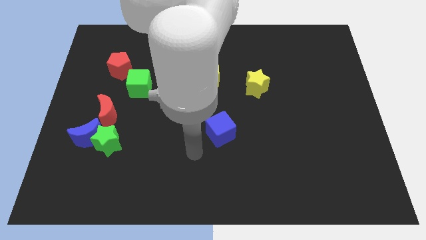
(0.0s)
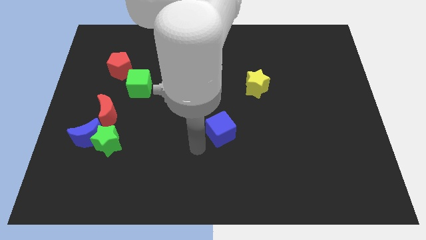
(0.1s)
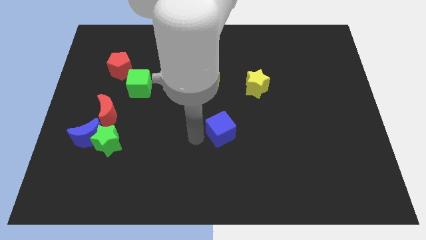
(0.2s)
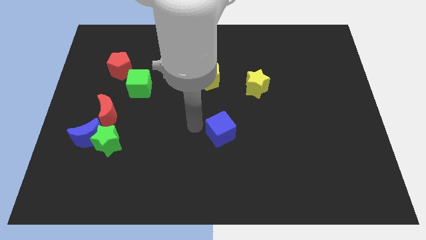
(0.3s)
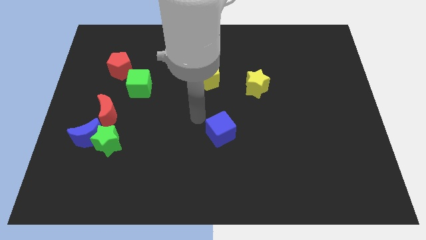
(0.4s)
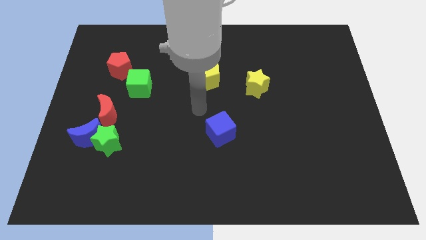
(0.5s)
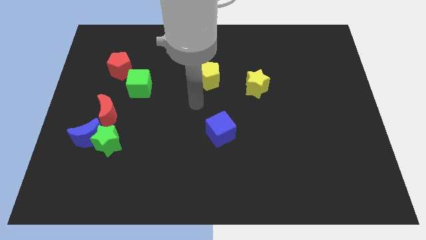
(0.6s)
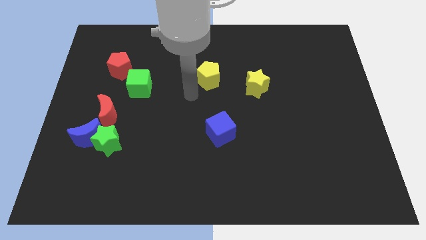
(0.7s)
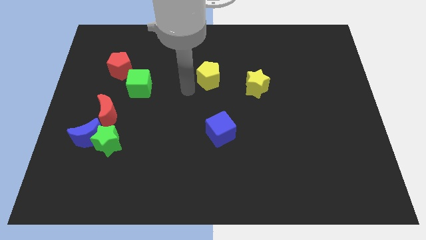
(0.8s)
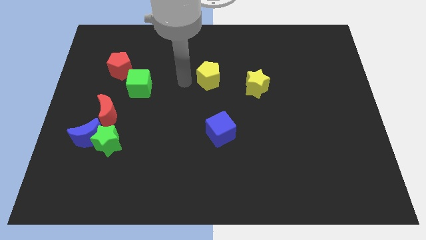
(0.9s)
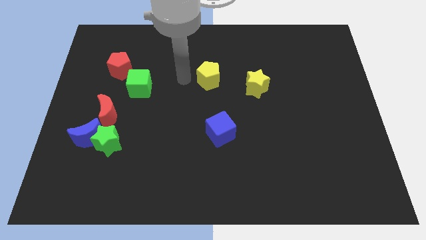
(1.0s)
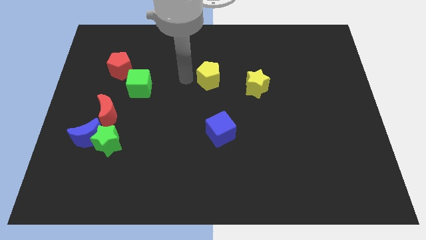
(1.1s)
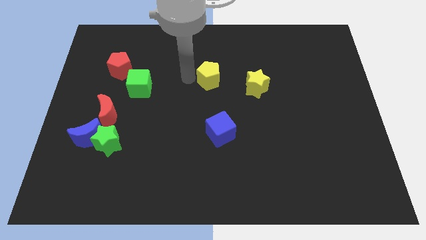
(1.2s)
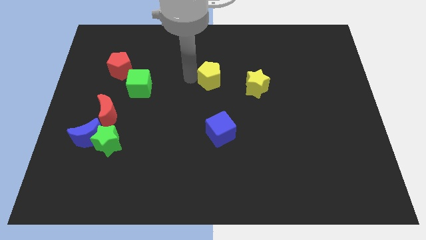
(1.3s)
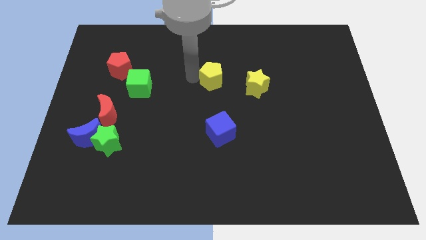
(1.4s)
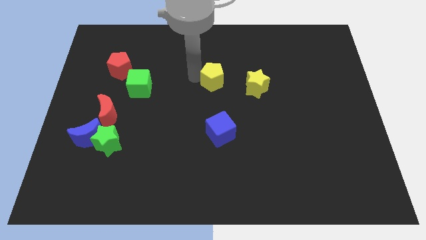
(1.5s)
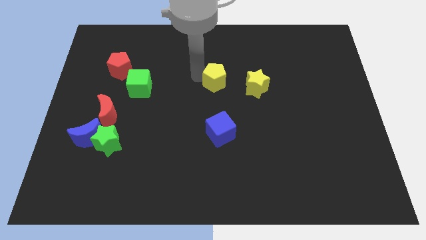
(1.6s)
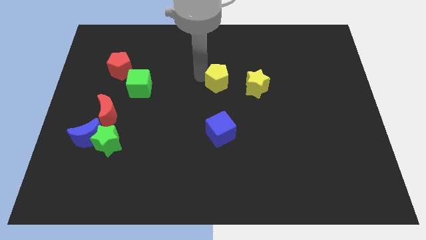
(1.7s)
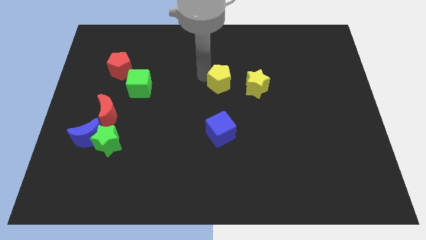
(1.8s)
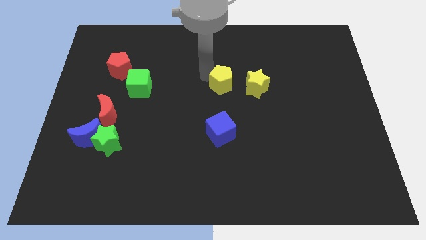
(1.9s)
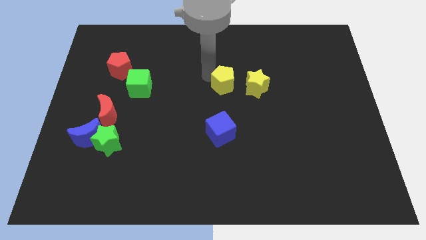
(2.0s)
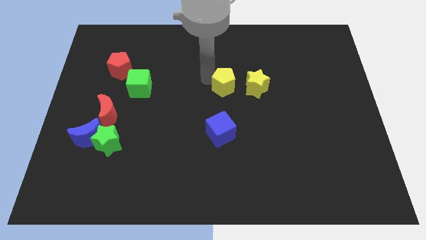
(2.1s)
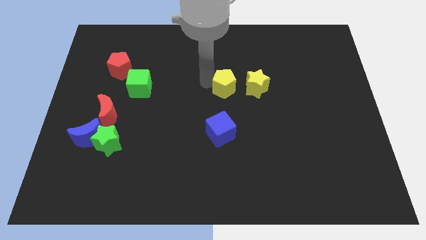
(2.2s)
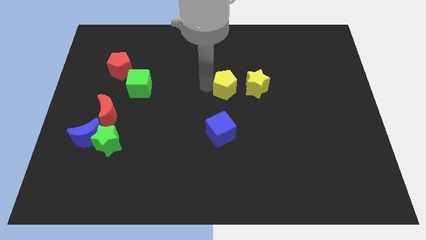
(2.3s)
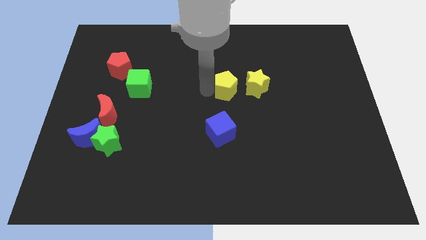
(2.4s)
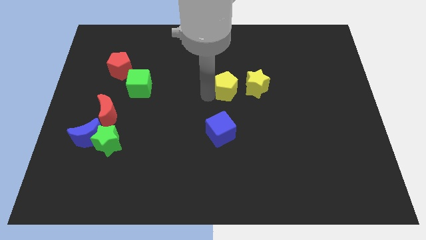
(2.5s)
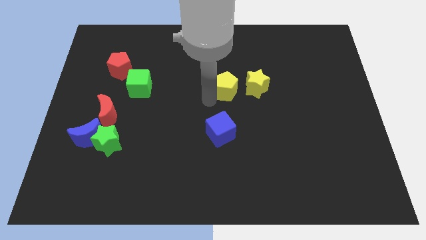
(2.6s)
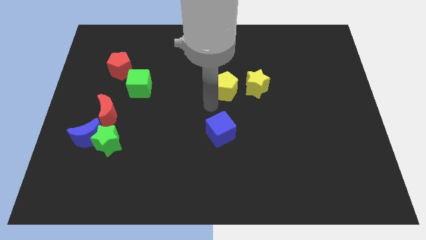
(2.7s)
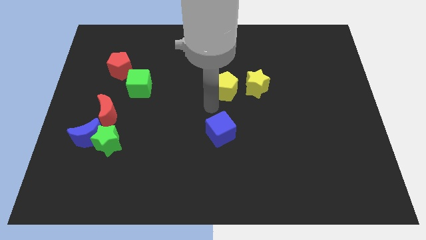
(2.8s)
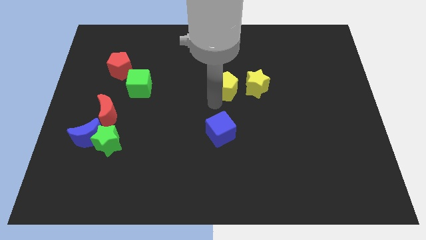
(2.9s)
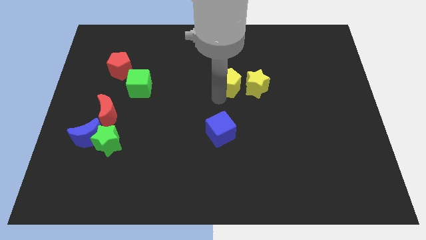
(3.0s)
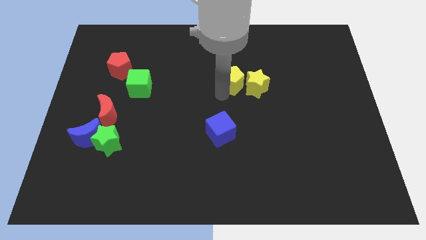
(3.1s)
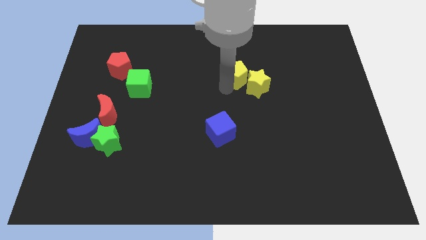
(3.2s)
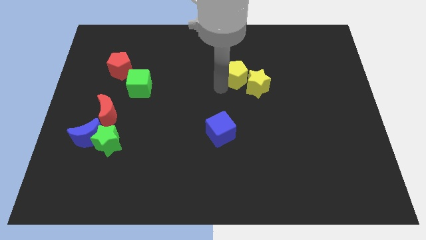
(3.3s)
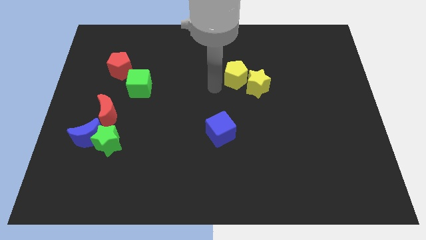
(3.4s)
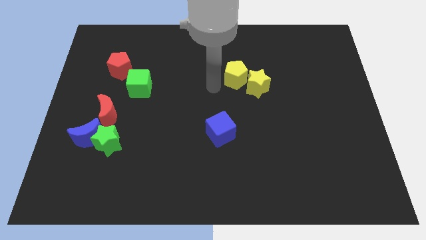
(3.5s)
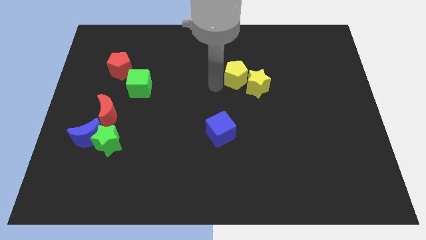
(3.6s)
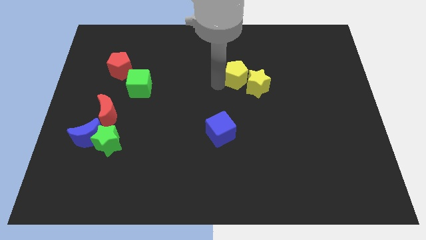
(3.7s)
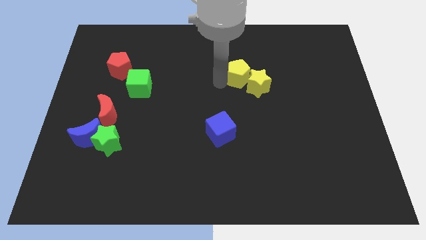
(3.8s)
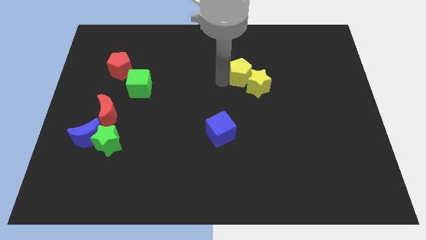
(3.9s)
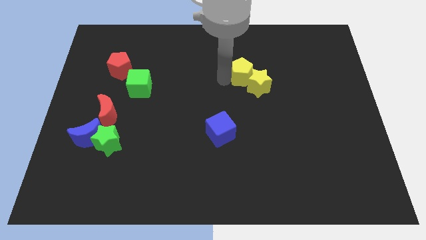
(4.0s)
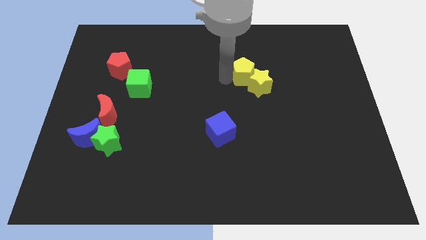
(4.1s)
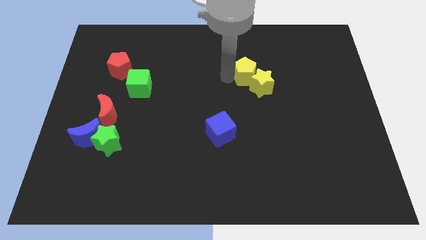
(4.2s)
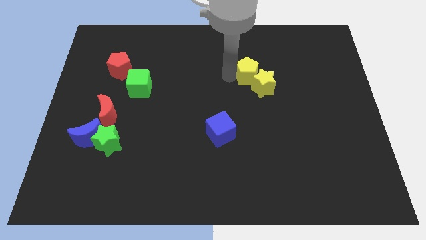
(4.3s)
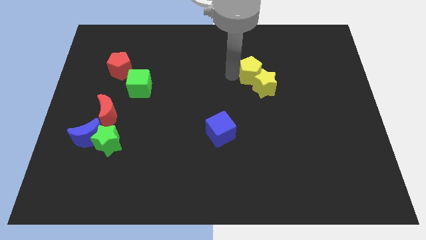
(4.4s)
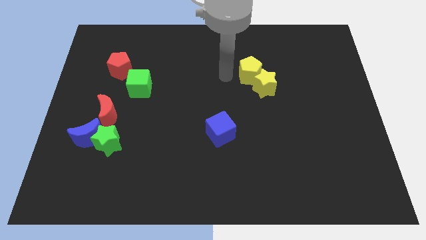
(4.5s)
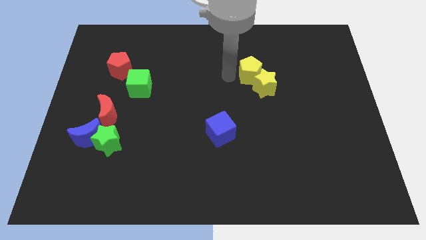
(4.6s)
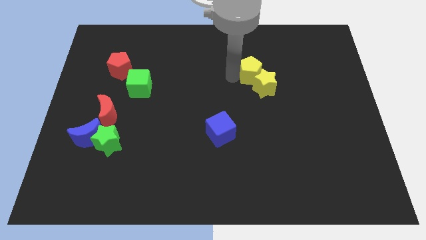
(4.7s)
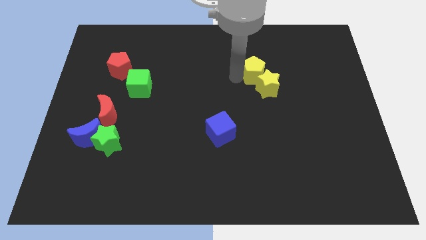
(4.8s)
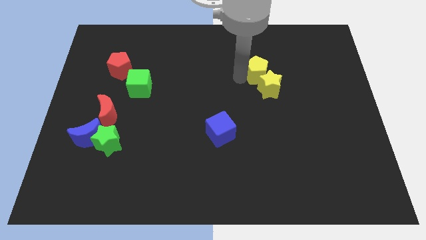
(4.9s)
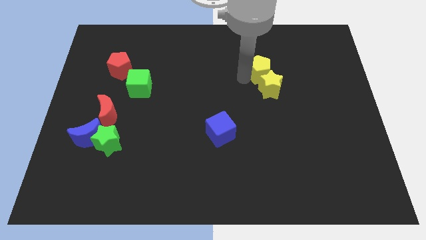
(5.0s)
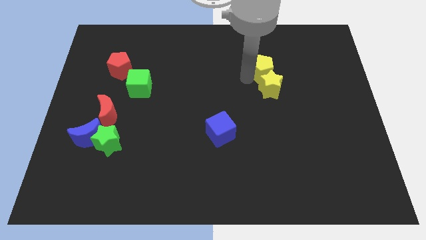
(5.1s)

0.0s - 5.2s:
push the yellow pentagon diagonally up and to the right of the yellow star

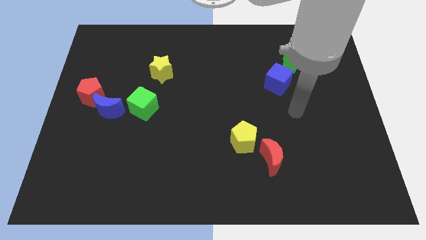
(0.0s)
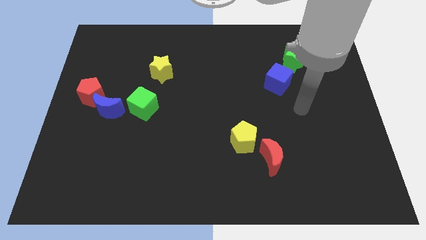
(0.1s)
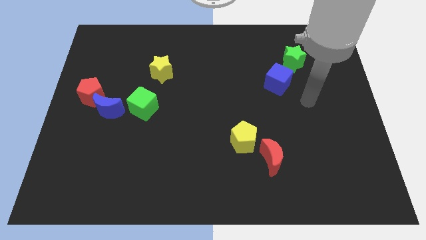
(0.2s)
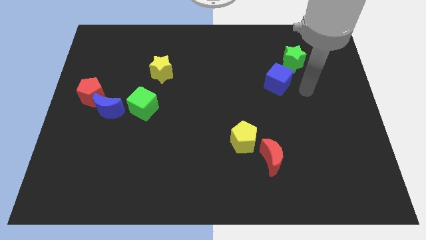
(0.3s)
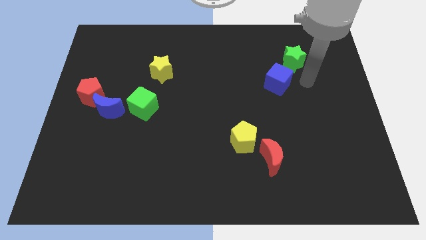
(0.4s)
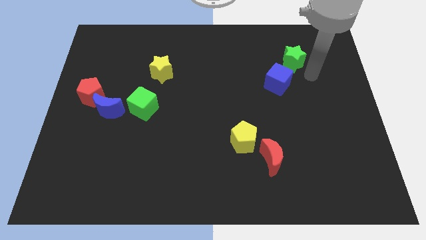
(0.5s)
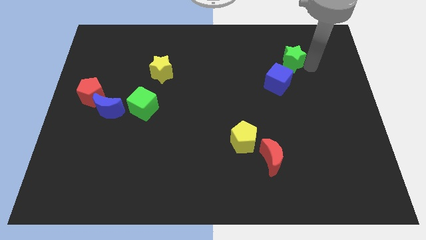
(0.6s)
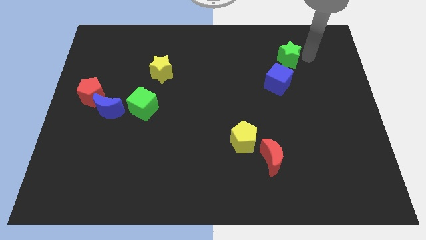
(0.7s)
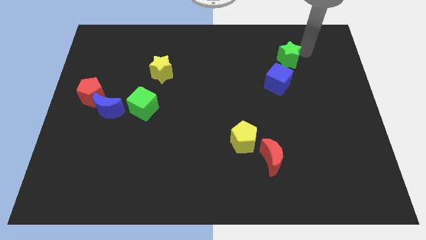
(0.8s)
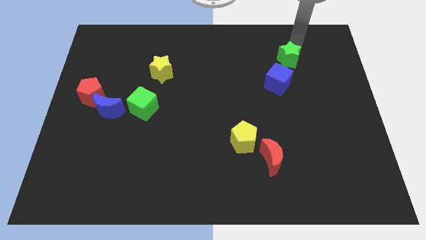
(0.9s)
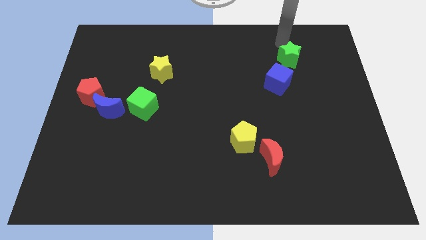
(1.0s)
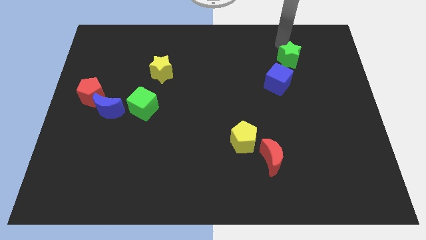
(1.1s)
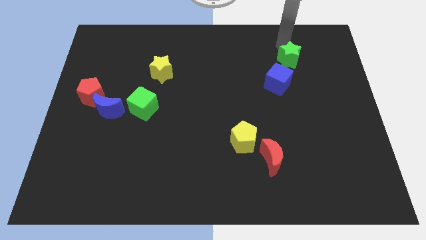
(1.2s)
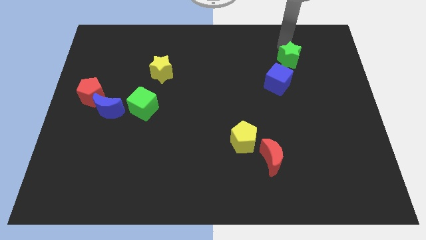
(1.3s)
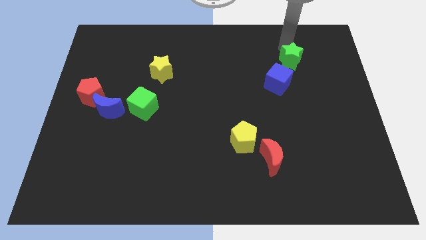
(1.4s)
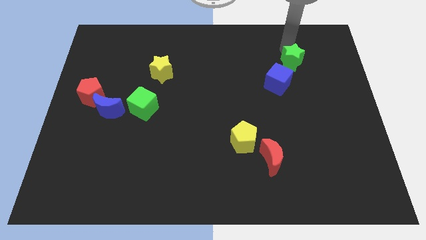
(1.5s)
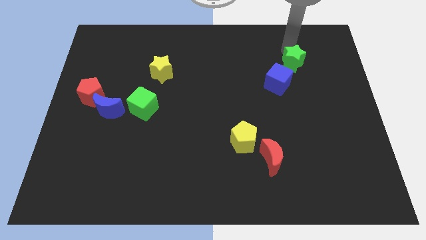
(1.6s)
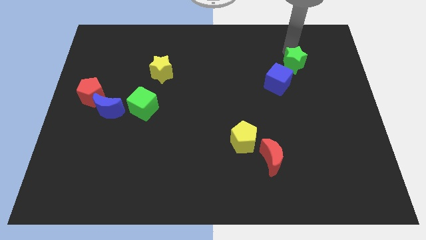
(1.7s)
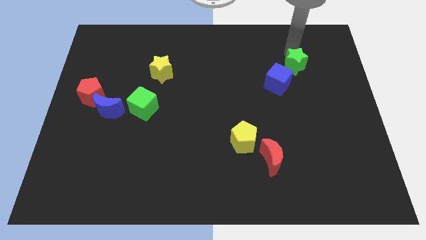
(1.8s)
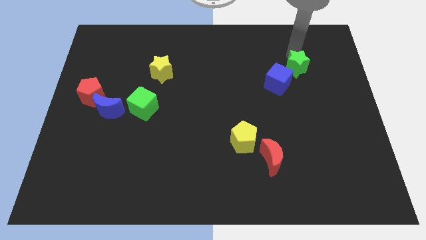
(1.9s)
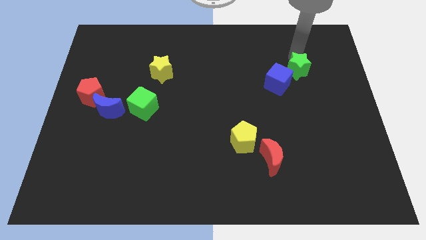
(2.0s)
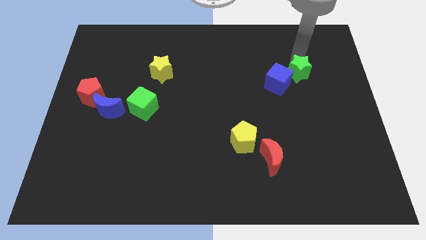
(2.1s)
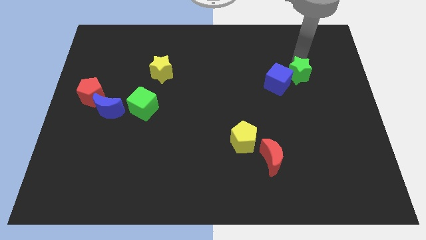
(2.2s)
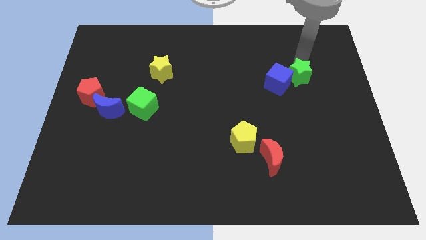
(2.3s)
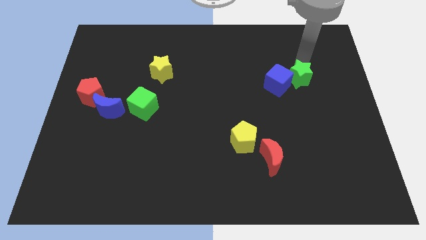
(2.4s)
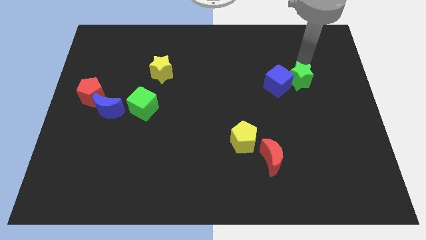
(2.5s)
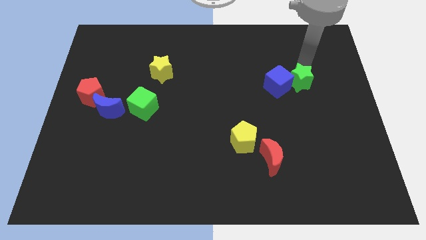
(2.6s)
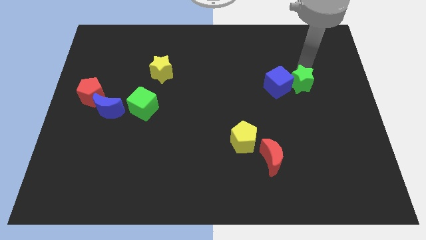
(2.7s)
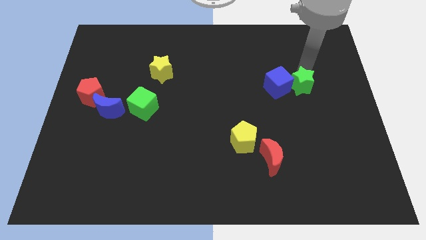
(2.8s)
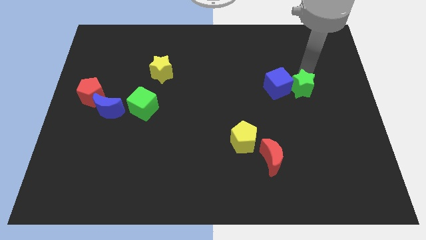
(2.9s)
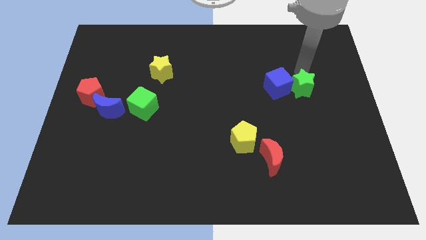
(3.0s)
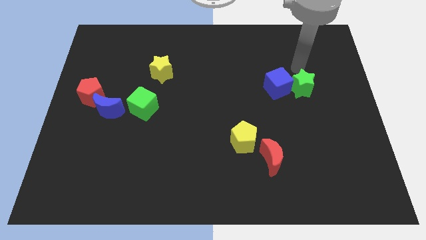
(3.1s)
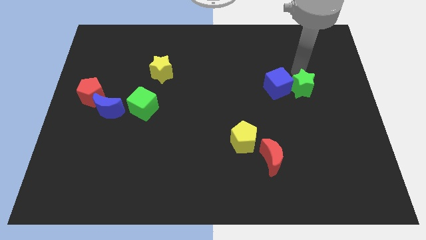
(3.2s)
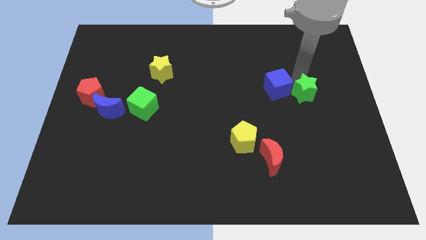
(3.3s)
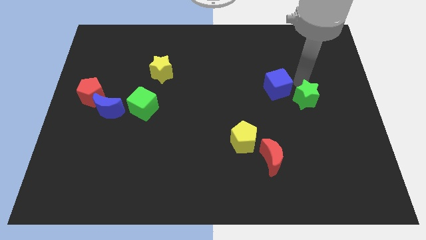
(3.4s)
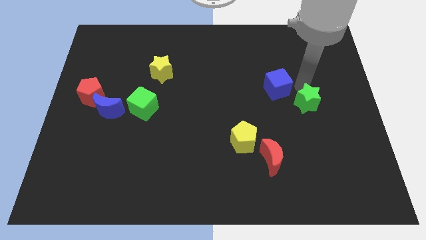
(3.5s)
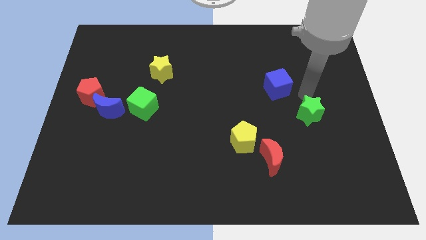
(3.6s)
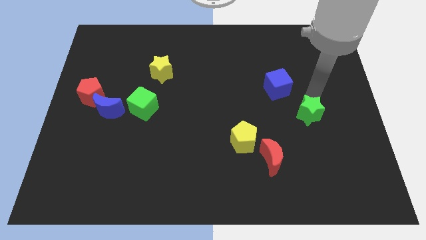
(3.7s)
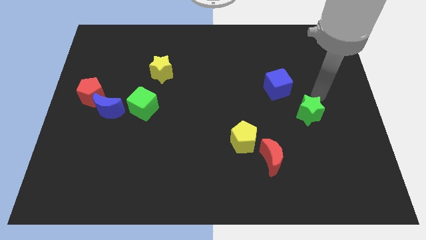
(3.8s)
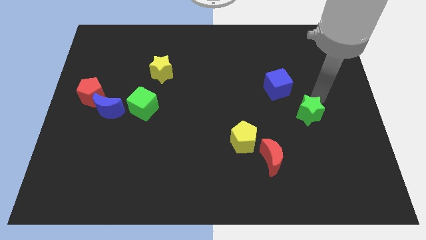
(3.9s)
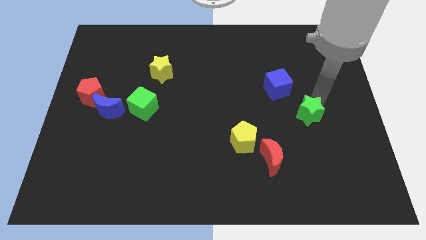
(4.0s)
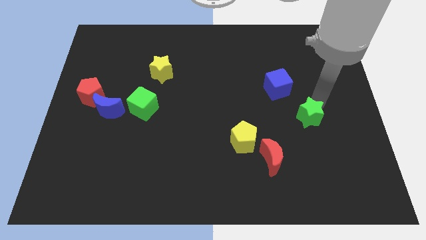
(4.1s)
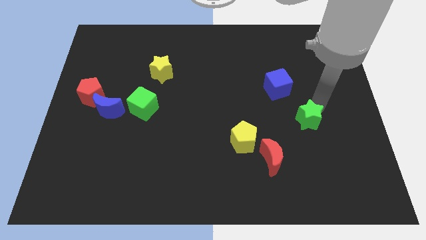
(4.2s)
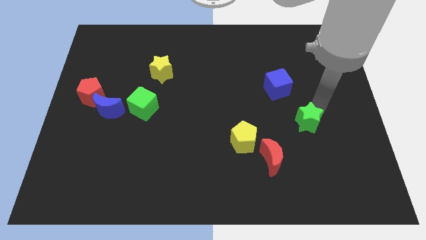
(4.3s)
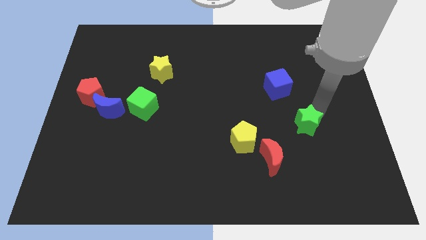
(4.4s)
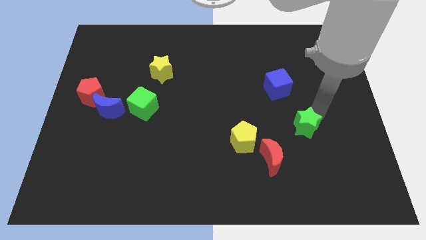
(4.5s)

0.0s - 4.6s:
put the green star to the right side of the yellow pentagon
